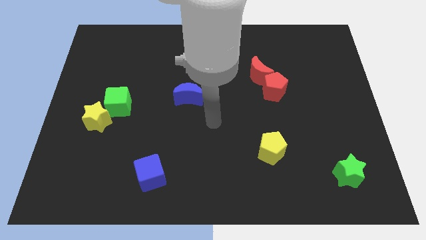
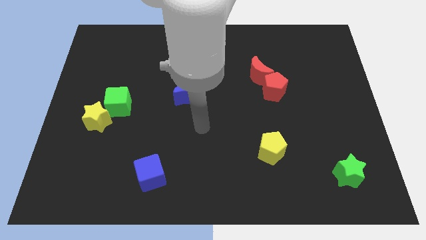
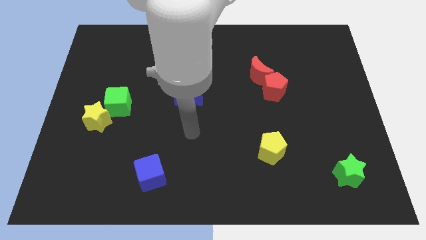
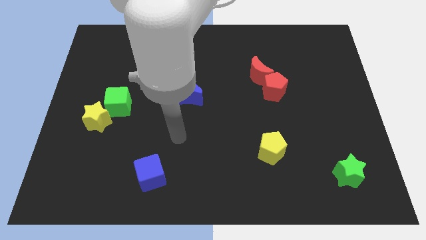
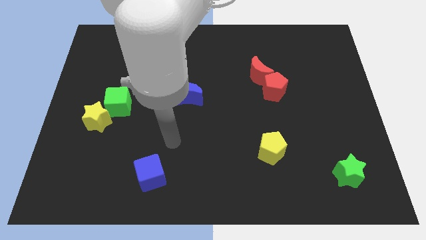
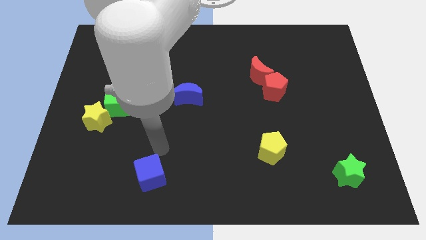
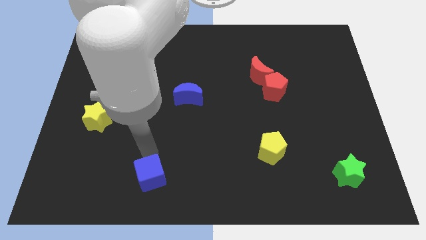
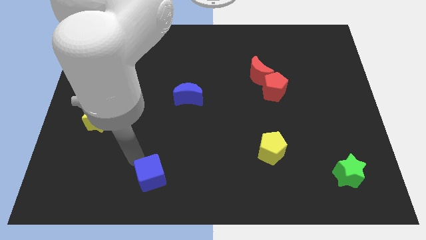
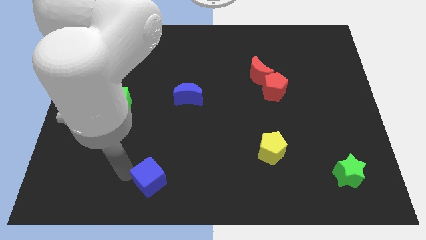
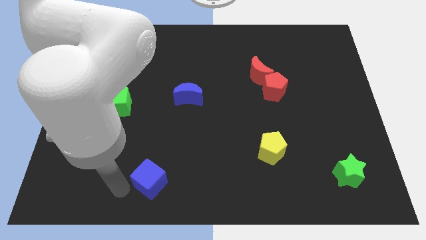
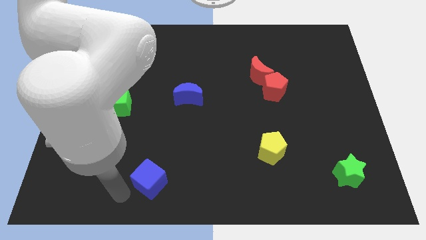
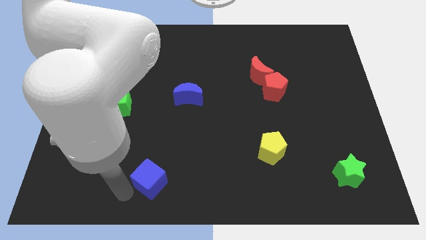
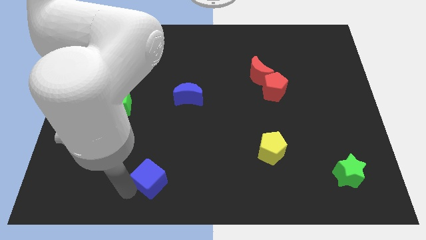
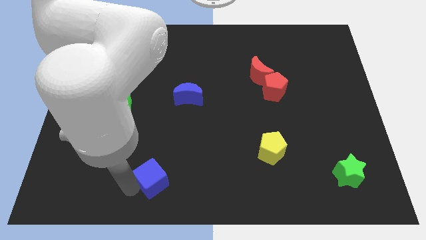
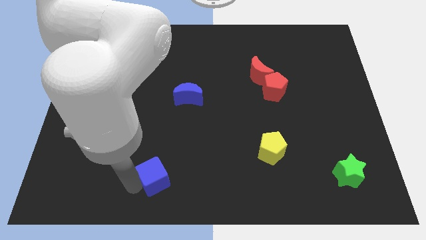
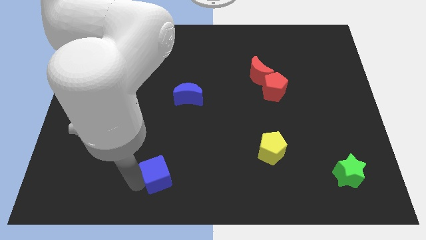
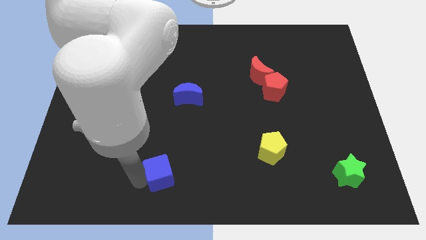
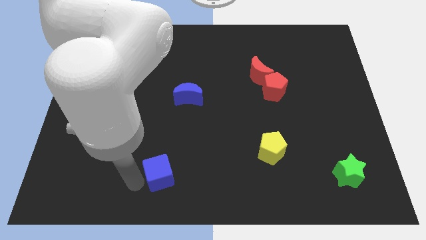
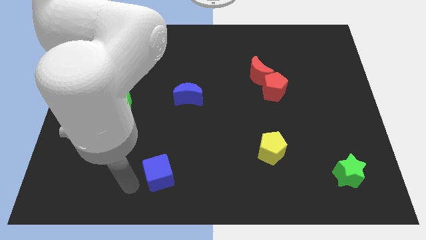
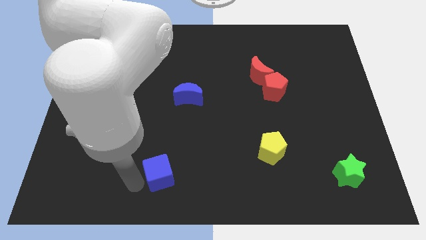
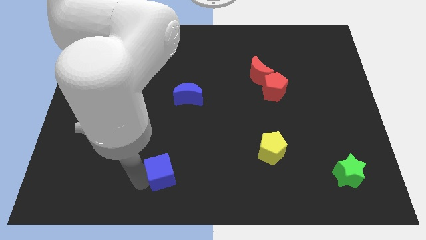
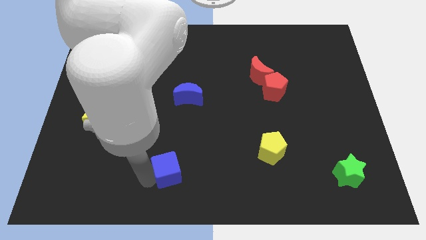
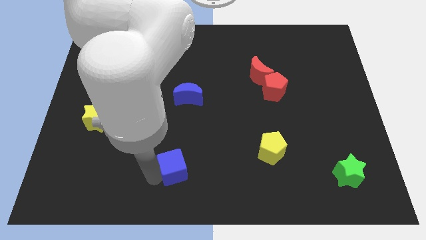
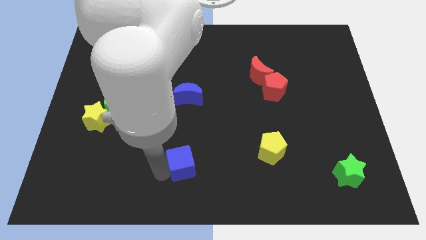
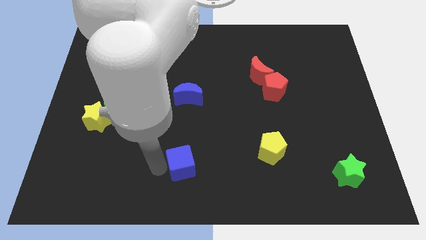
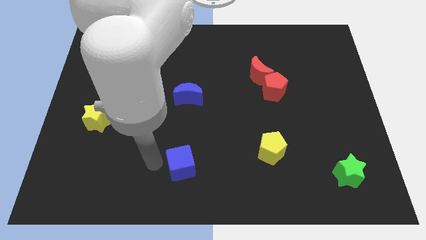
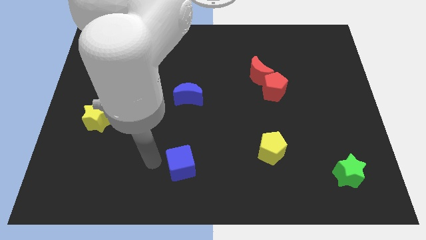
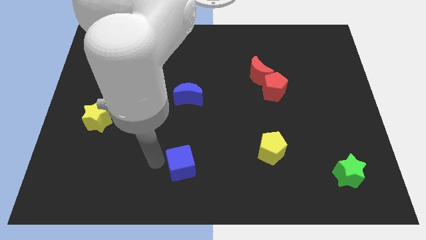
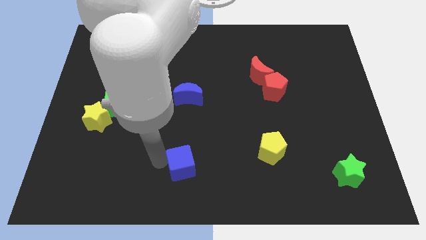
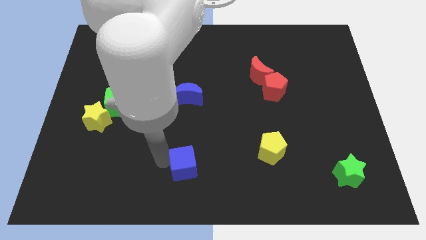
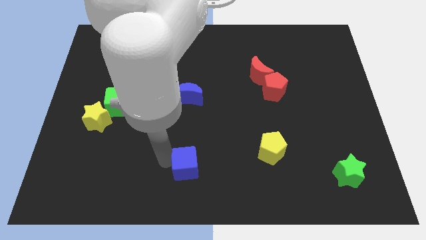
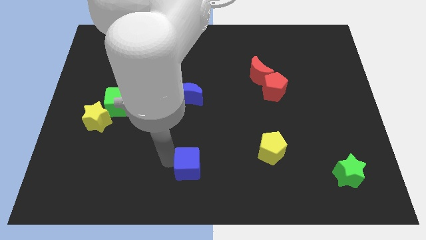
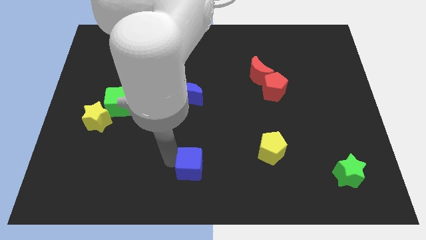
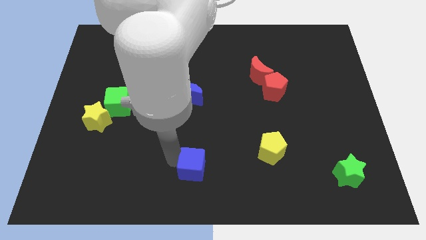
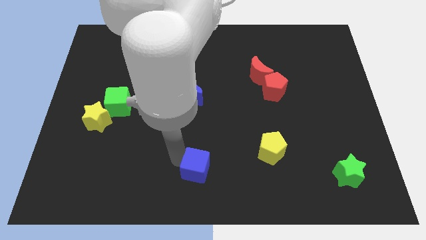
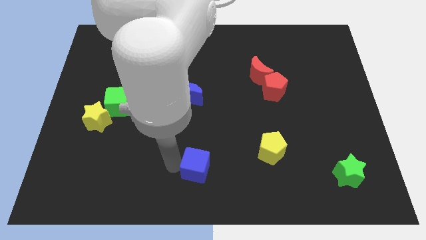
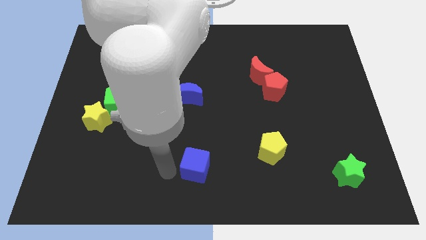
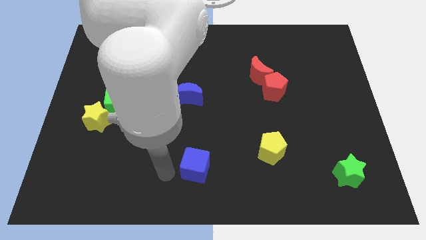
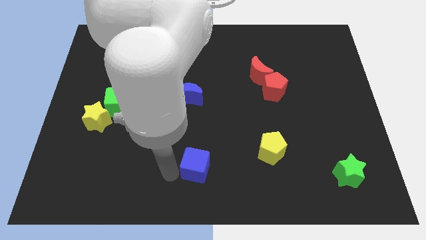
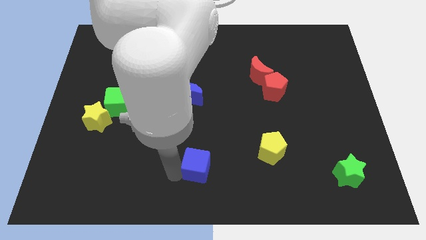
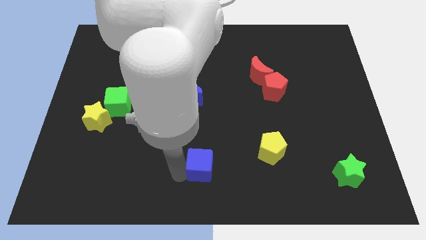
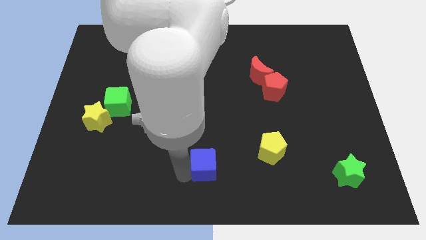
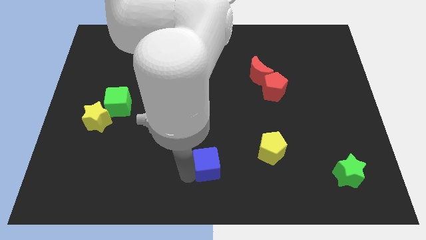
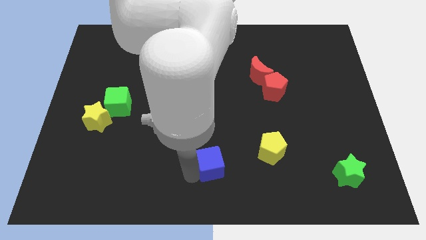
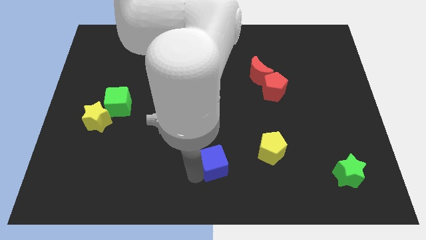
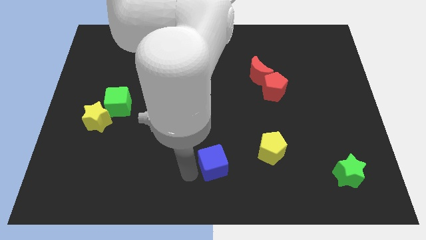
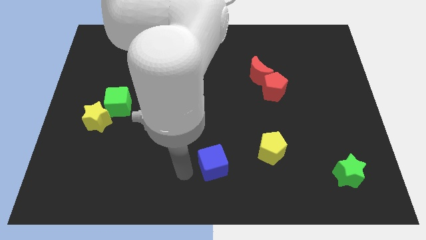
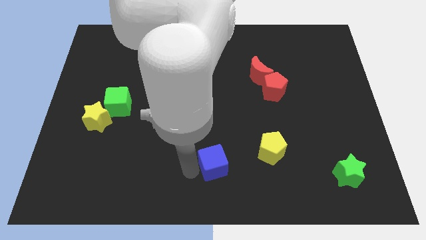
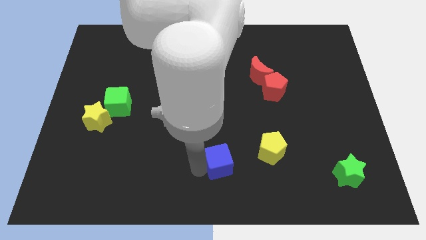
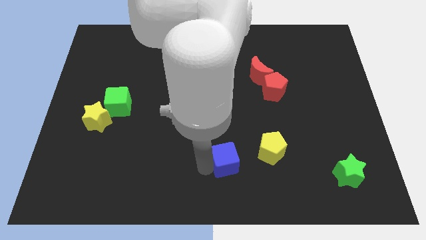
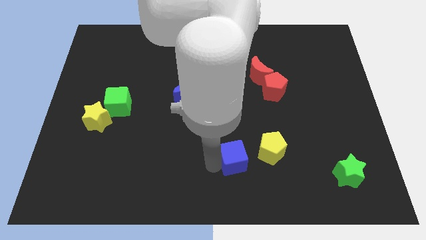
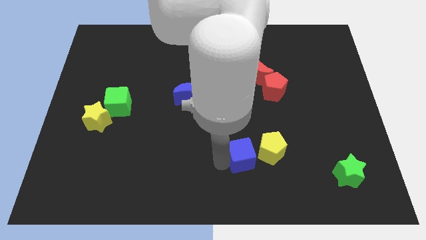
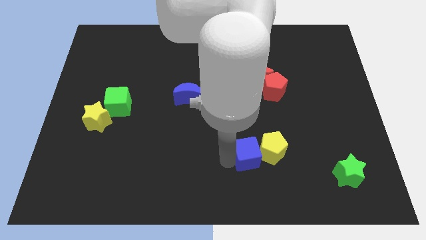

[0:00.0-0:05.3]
slide the blue cube next to the yellow pentagon

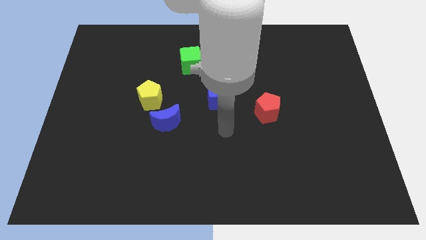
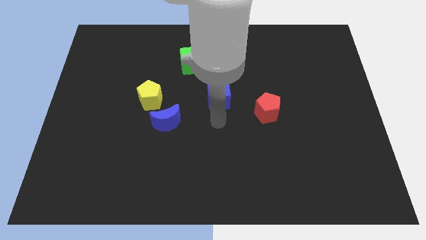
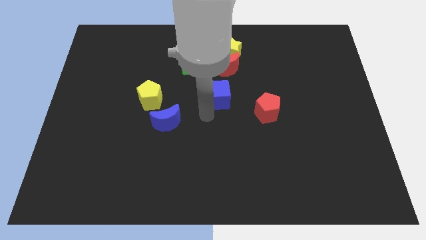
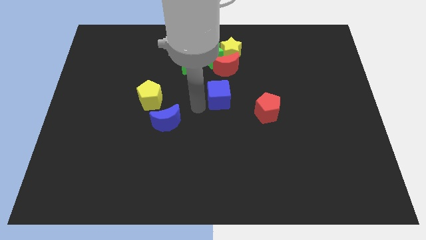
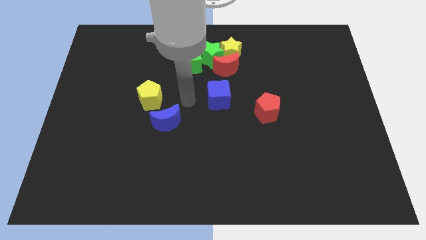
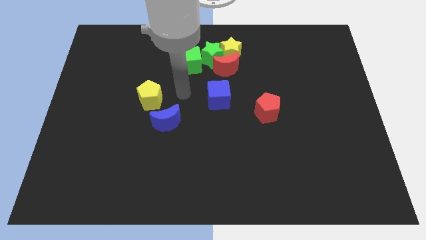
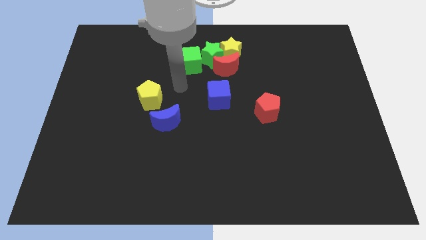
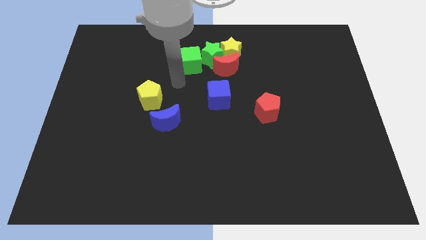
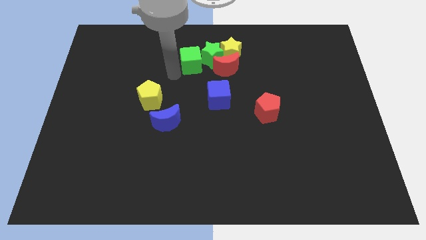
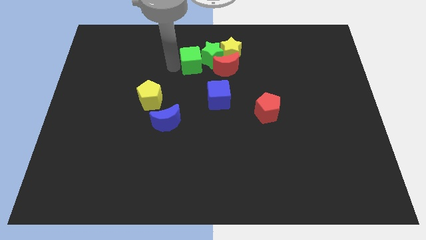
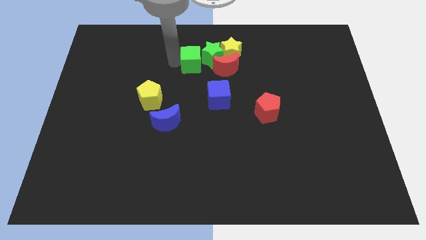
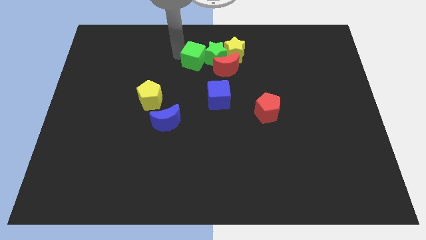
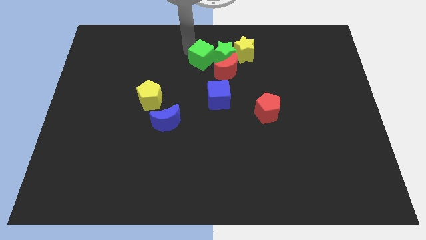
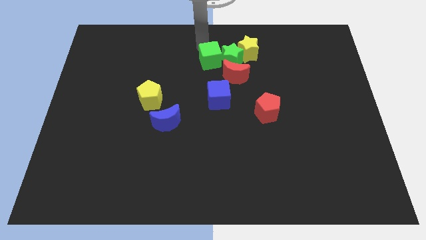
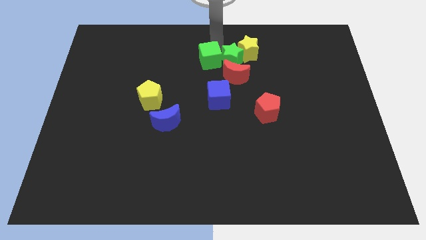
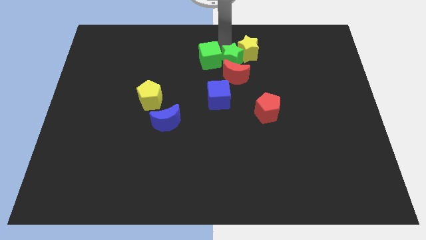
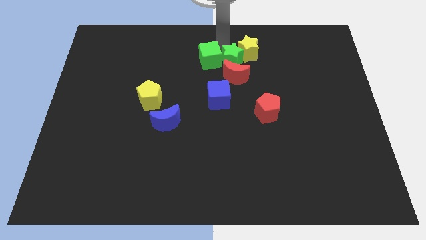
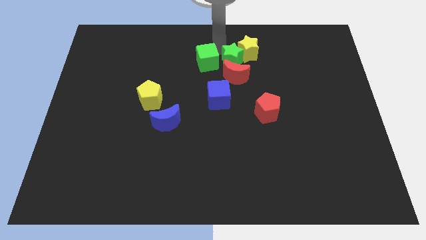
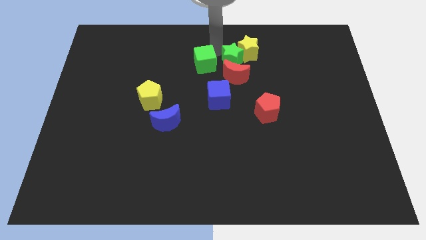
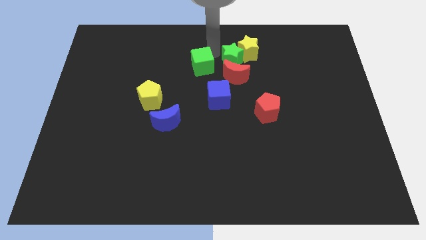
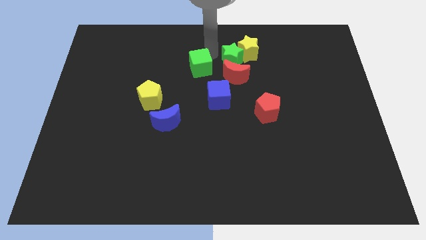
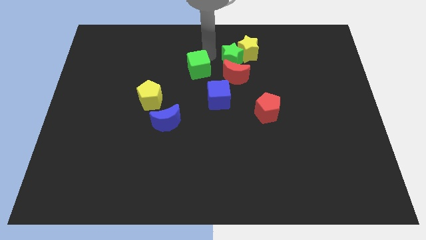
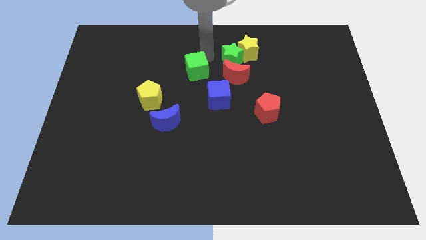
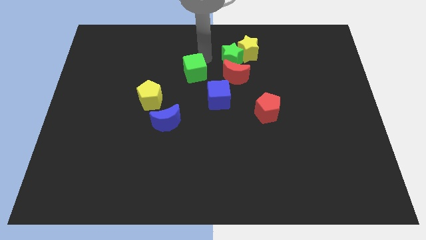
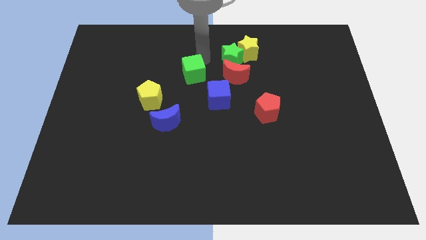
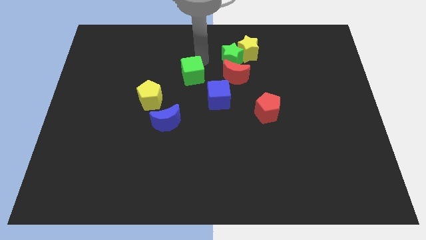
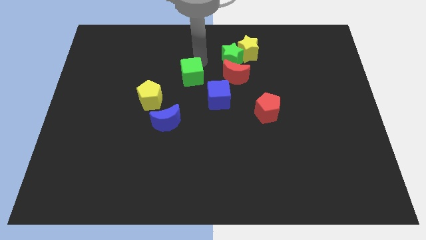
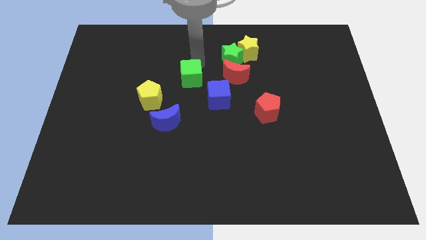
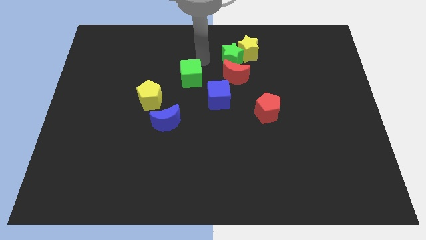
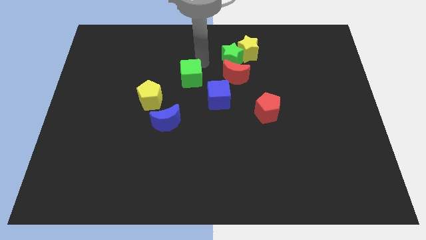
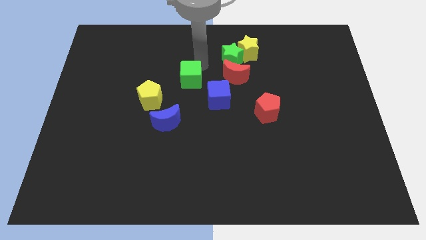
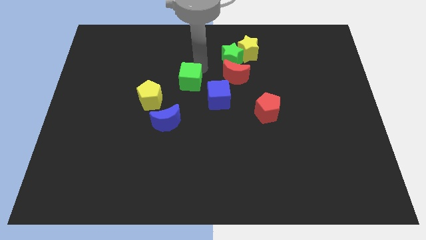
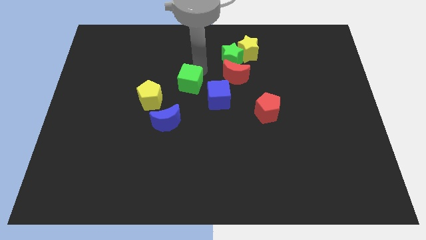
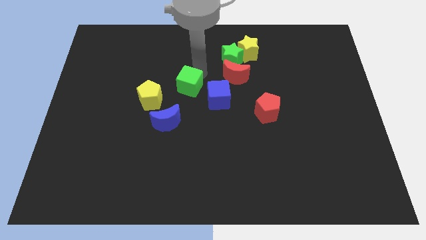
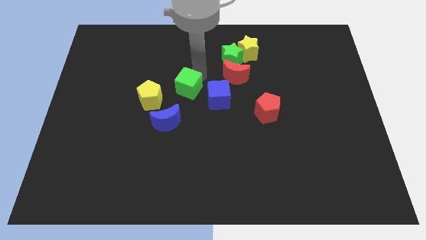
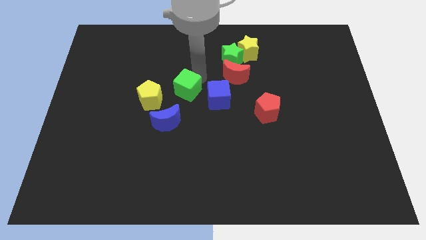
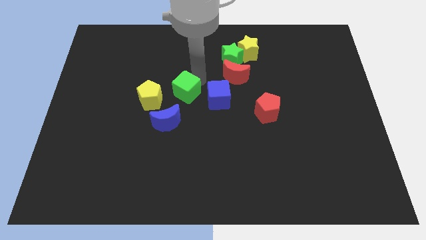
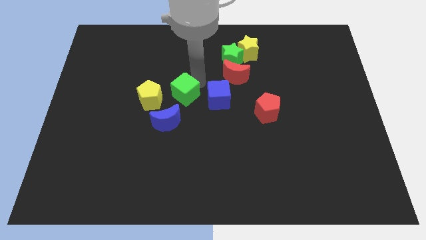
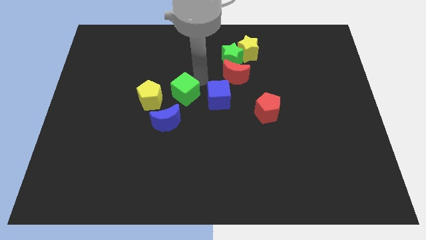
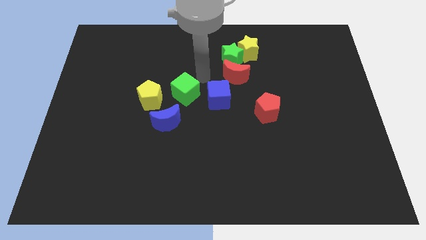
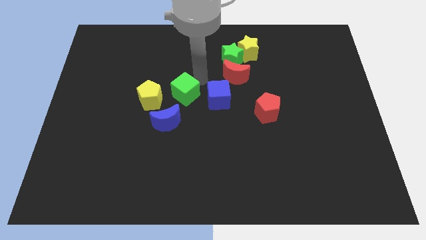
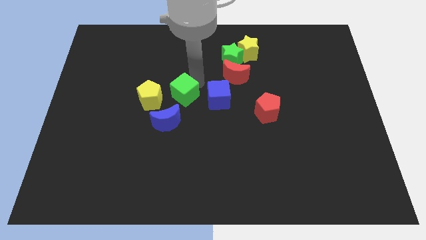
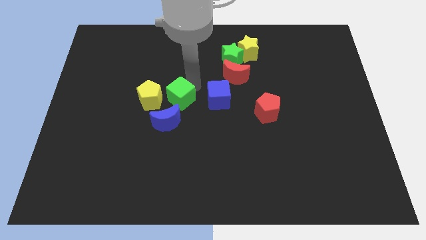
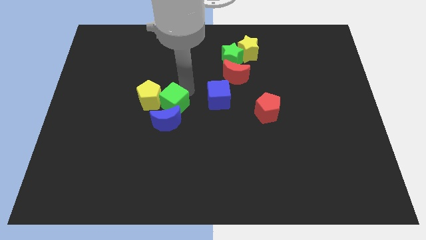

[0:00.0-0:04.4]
push the green cube to the blue moon
